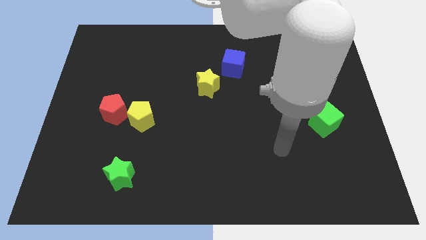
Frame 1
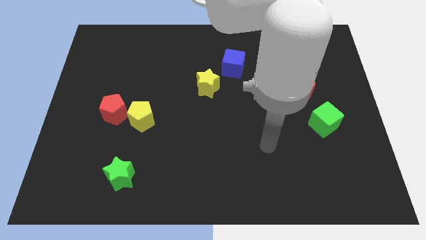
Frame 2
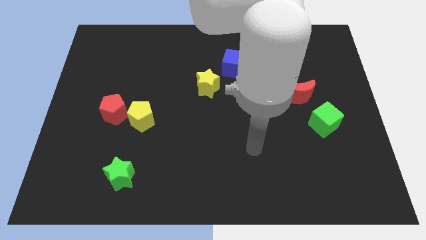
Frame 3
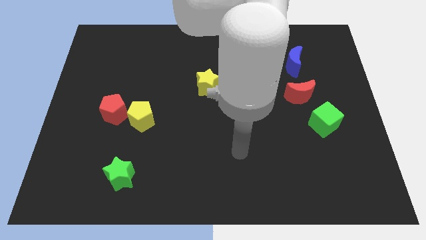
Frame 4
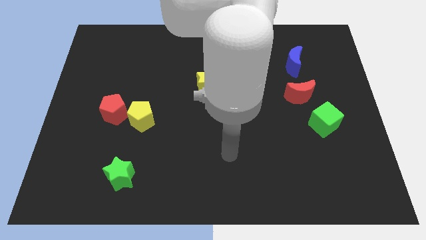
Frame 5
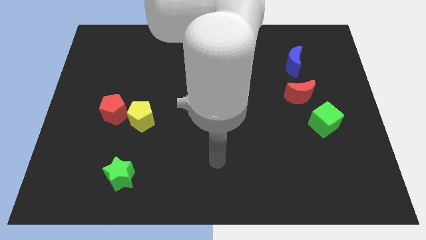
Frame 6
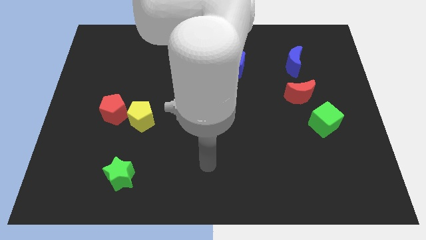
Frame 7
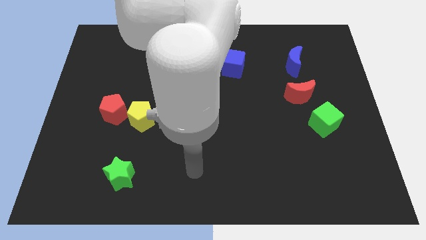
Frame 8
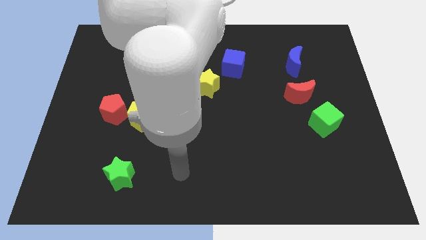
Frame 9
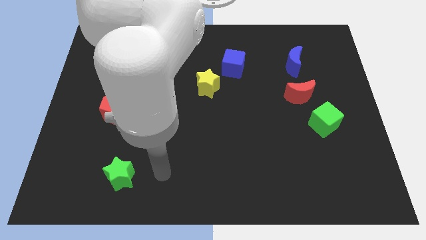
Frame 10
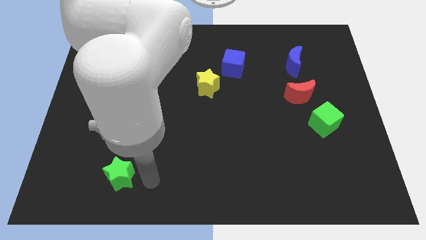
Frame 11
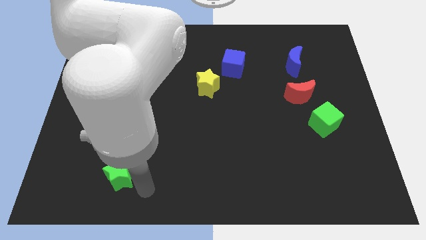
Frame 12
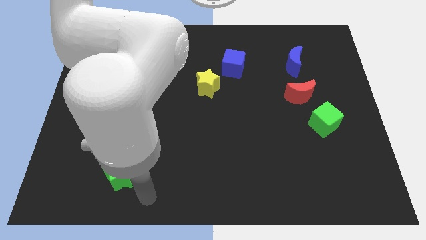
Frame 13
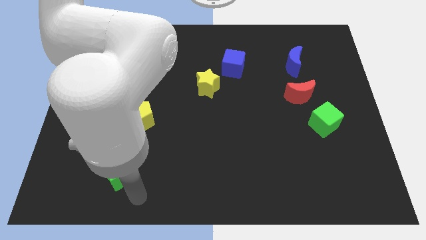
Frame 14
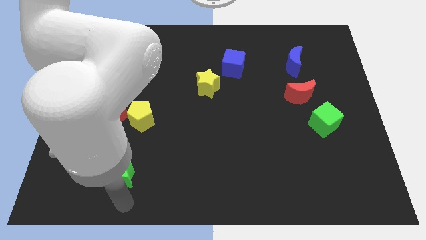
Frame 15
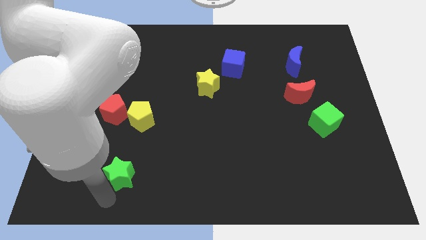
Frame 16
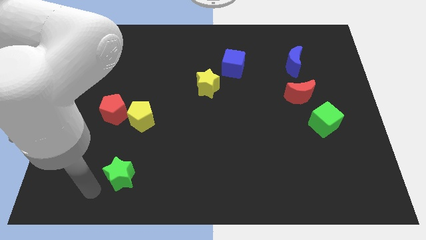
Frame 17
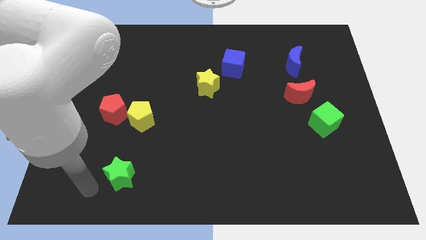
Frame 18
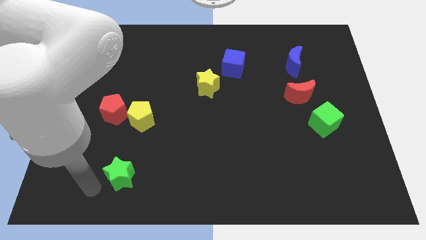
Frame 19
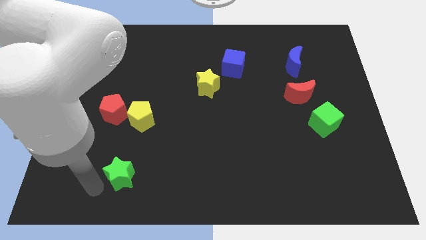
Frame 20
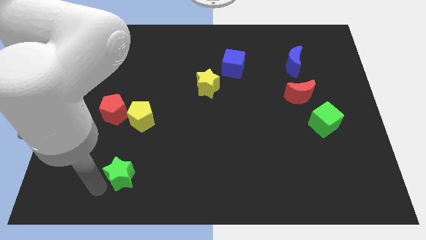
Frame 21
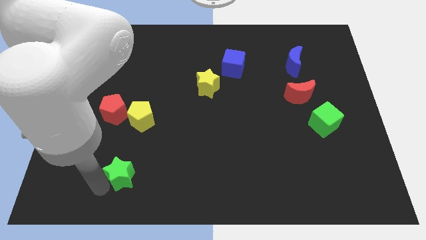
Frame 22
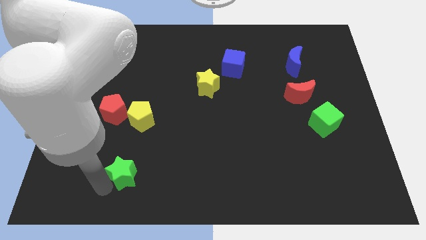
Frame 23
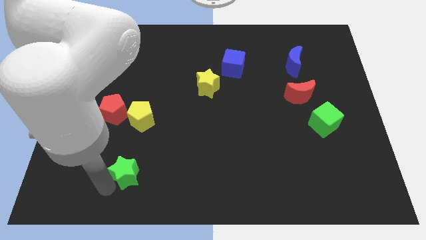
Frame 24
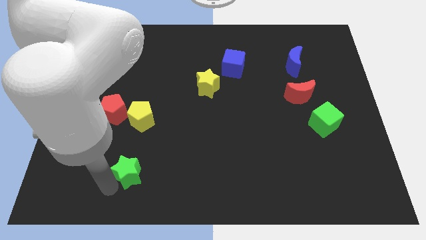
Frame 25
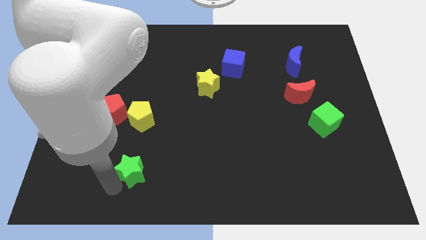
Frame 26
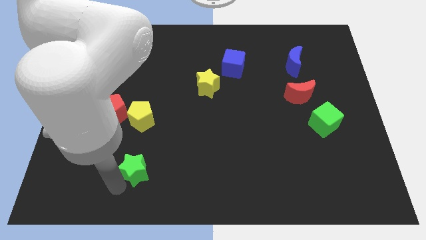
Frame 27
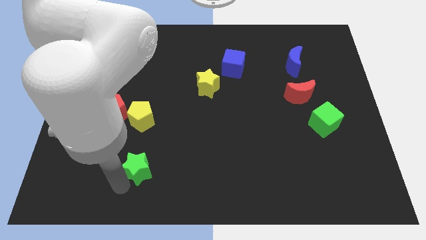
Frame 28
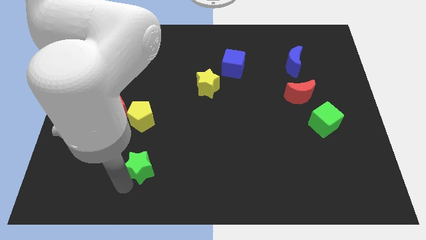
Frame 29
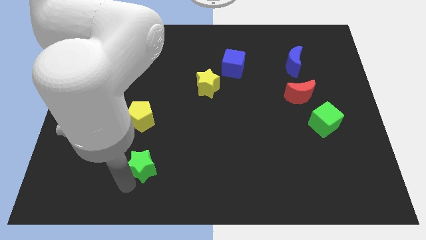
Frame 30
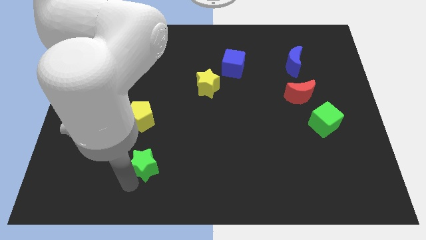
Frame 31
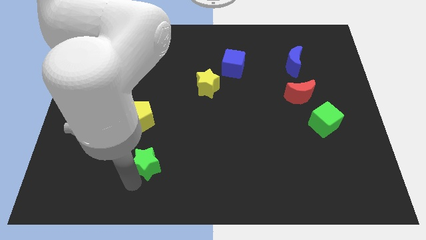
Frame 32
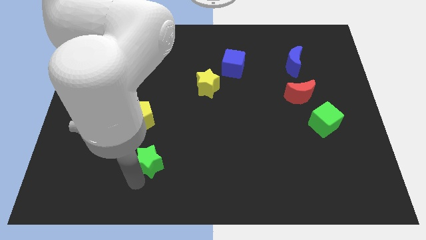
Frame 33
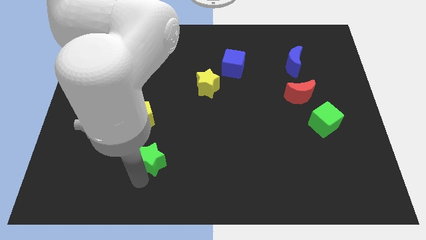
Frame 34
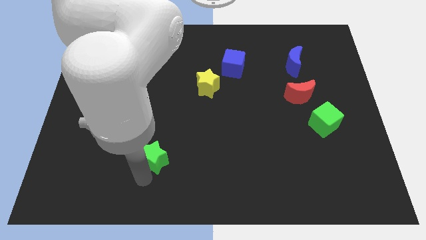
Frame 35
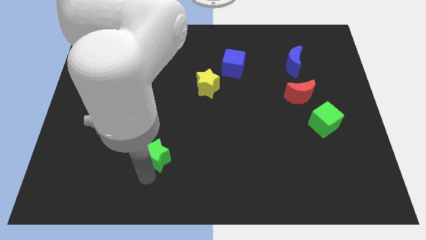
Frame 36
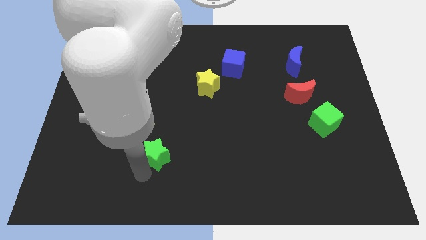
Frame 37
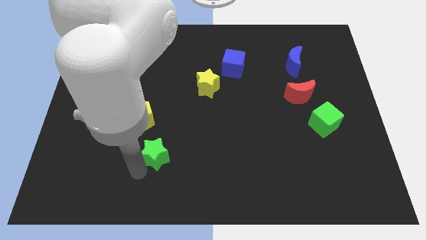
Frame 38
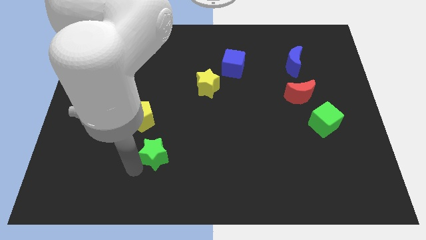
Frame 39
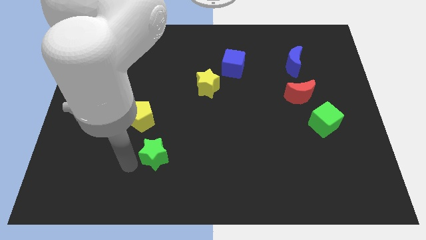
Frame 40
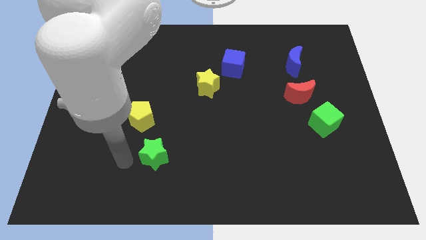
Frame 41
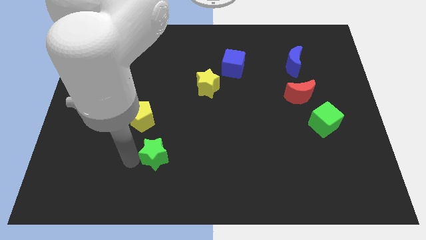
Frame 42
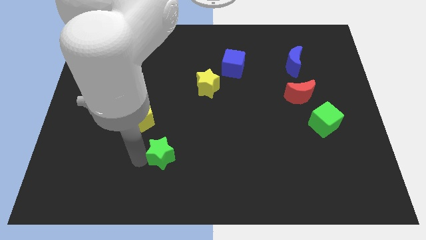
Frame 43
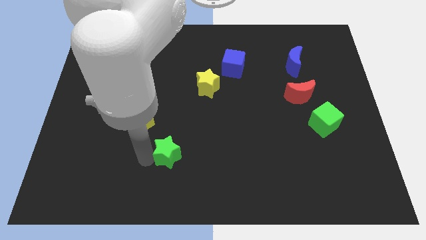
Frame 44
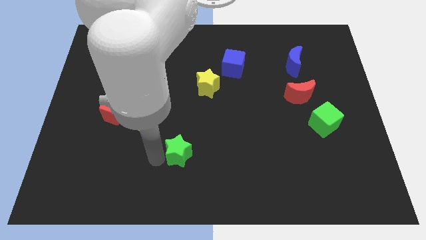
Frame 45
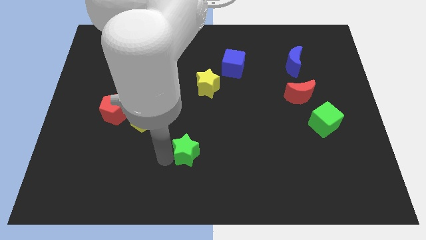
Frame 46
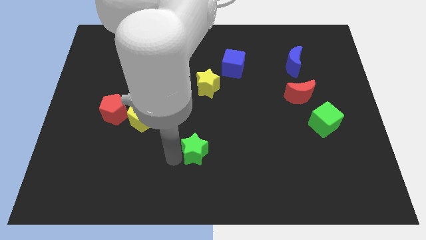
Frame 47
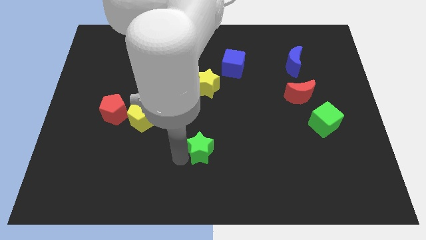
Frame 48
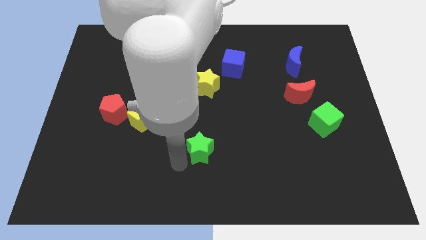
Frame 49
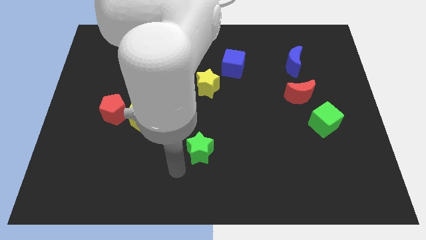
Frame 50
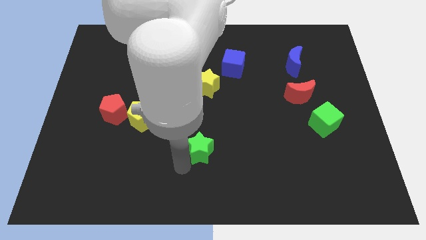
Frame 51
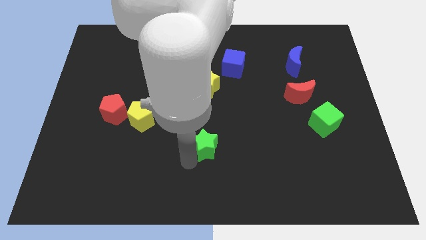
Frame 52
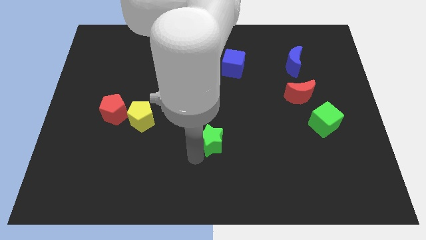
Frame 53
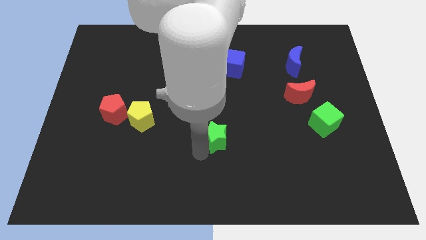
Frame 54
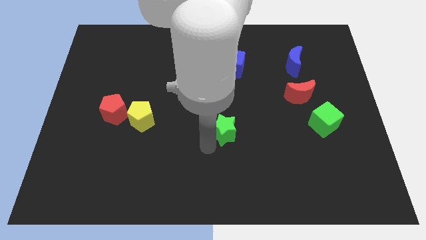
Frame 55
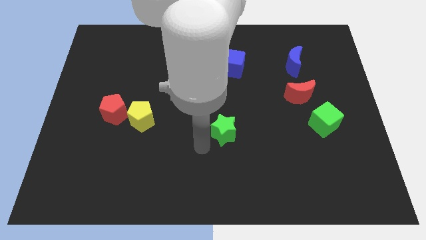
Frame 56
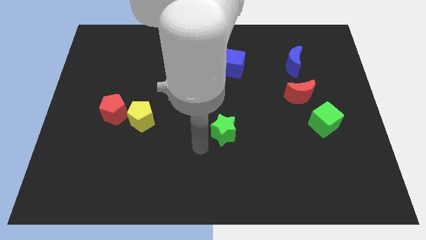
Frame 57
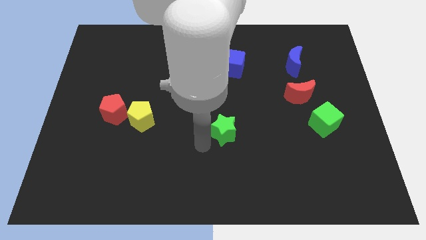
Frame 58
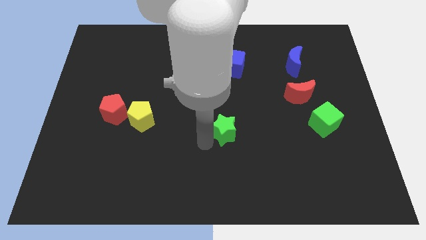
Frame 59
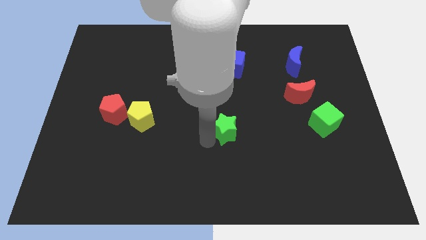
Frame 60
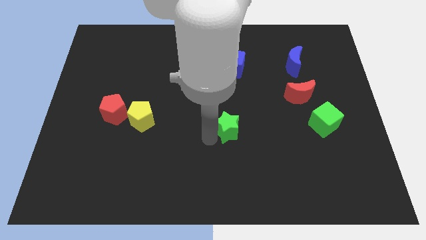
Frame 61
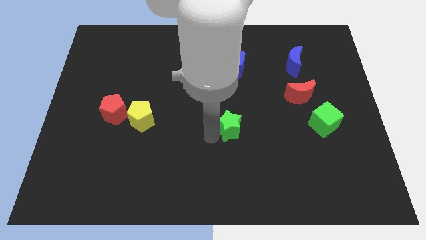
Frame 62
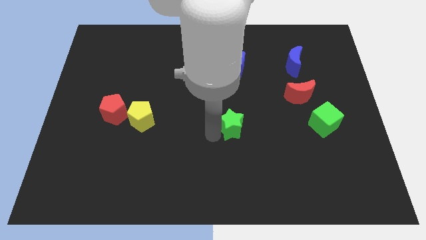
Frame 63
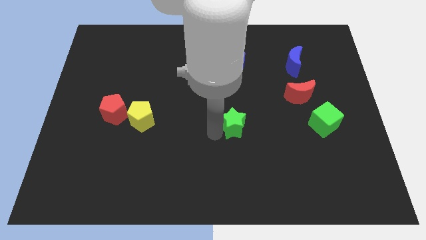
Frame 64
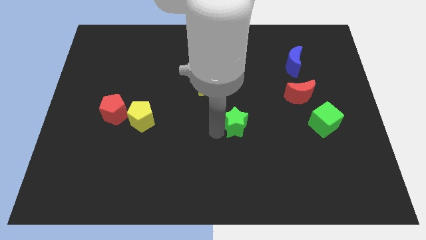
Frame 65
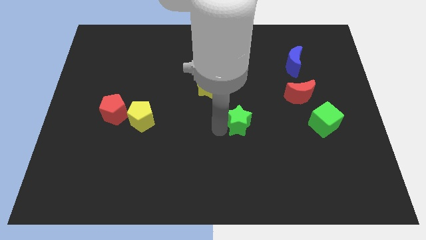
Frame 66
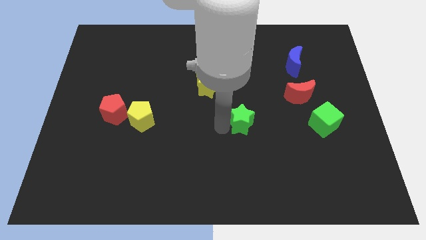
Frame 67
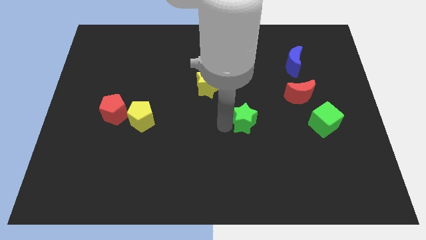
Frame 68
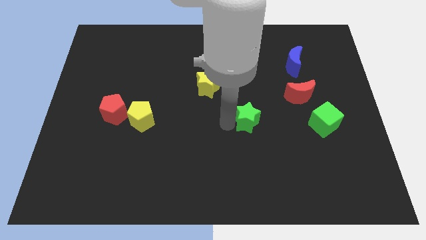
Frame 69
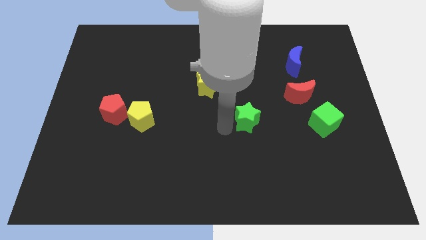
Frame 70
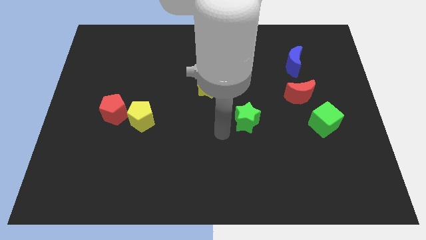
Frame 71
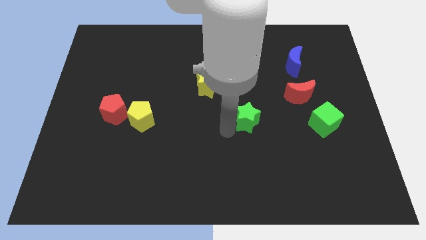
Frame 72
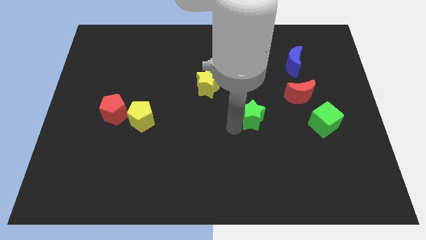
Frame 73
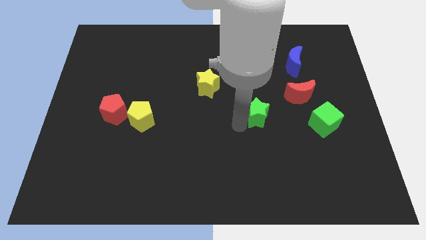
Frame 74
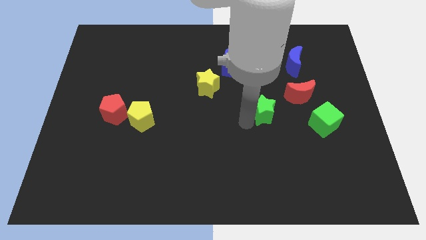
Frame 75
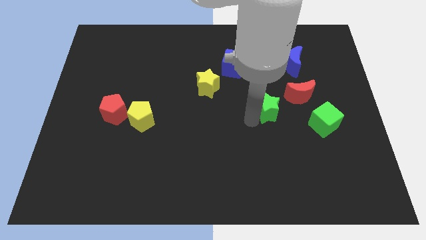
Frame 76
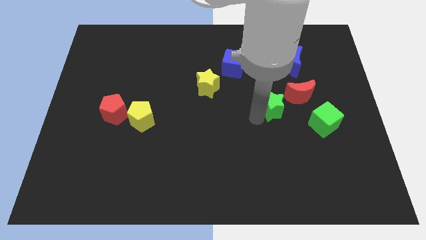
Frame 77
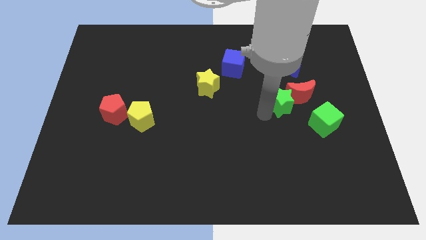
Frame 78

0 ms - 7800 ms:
slide the green star to the red moon

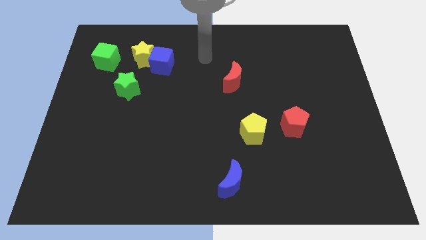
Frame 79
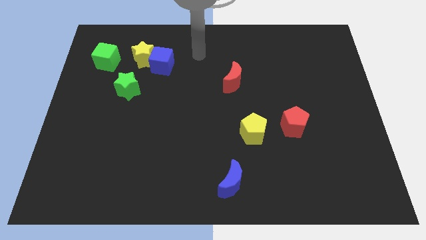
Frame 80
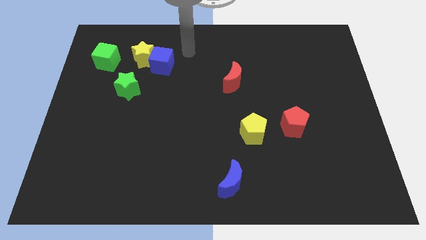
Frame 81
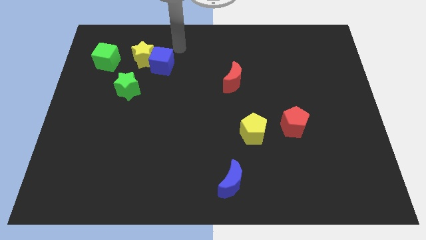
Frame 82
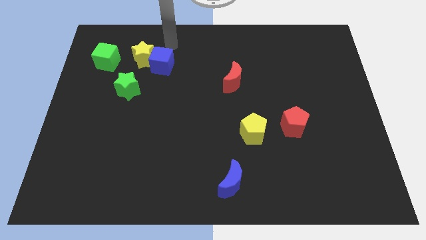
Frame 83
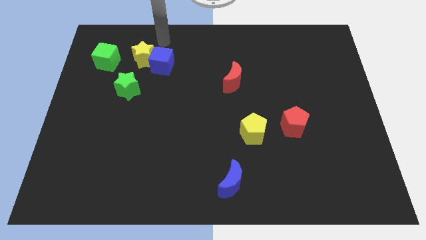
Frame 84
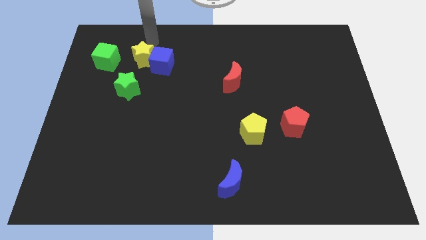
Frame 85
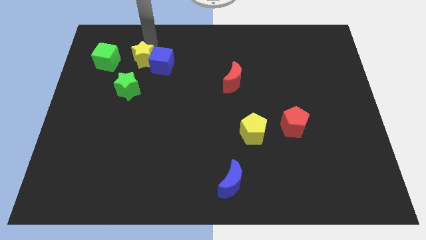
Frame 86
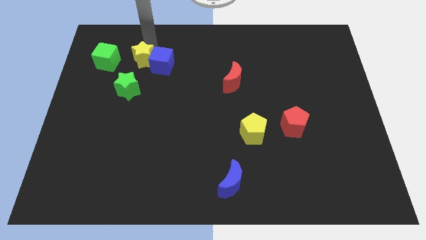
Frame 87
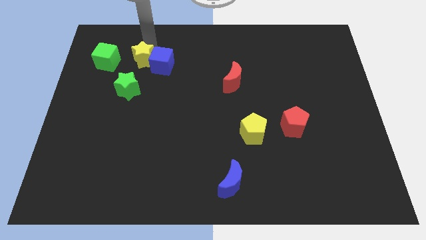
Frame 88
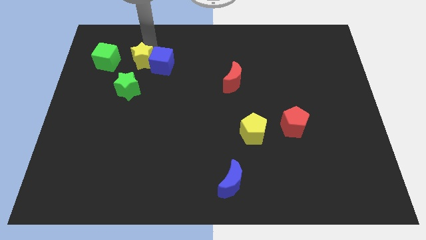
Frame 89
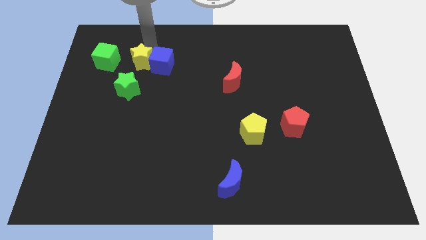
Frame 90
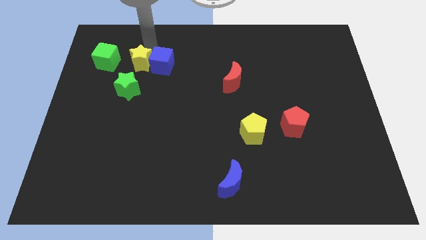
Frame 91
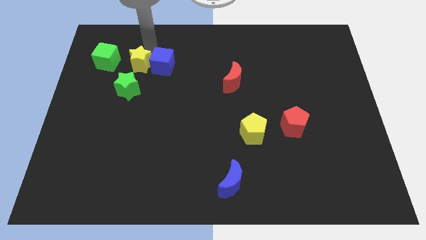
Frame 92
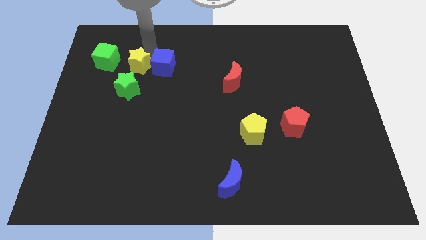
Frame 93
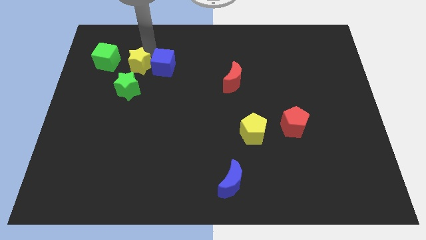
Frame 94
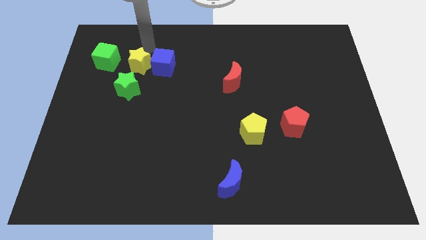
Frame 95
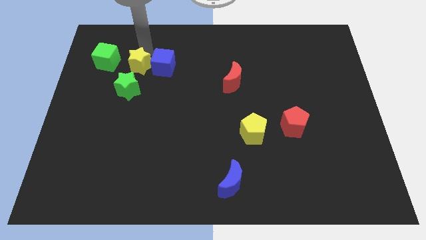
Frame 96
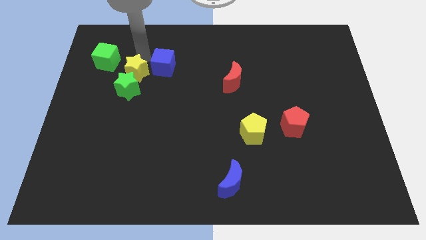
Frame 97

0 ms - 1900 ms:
move the yellow star next to the green star
